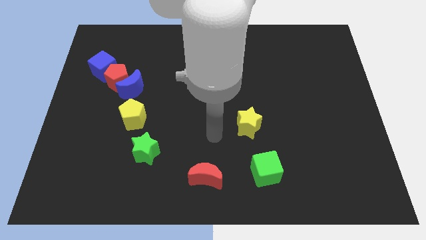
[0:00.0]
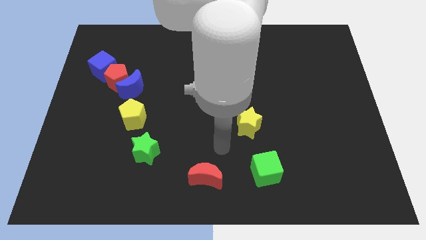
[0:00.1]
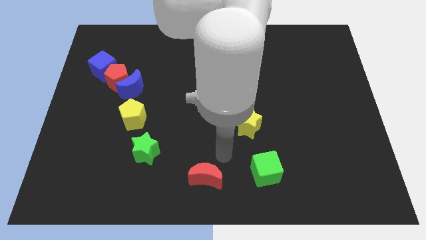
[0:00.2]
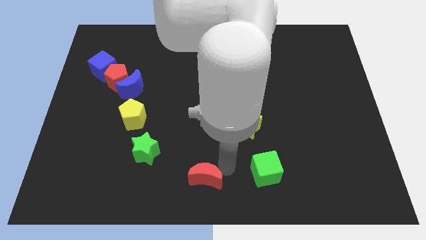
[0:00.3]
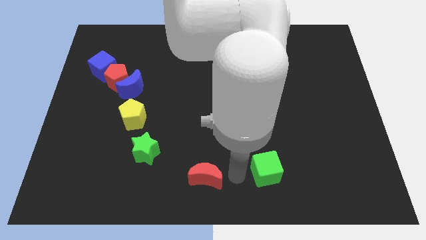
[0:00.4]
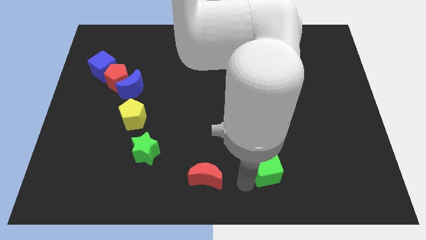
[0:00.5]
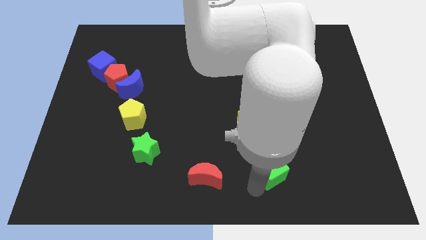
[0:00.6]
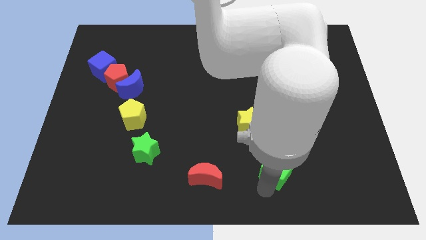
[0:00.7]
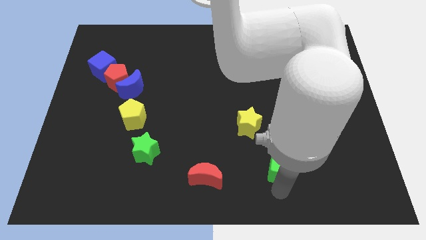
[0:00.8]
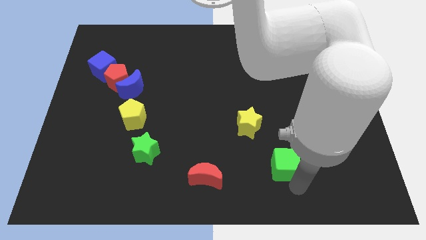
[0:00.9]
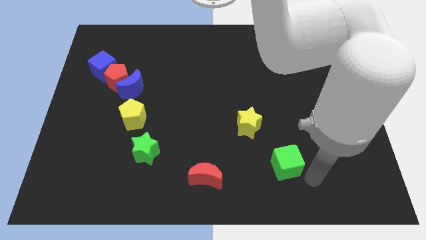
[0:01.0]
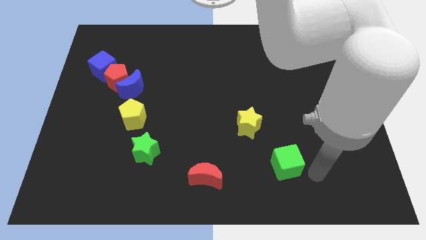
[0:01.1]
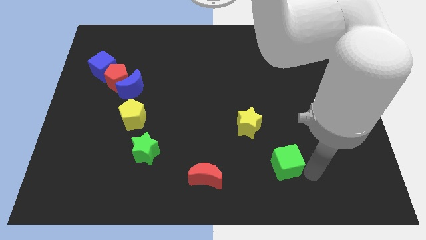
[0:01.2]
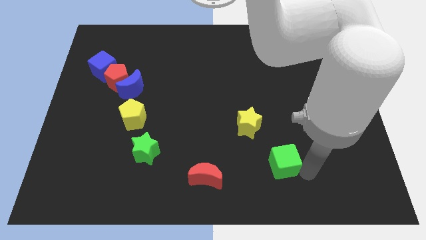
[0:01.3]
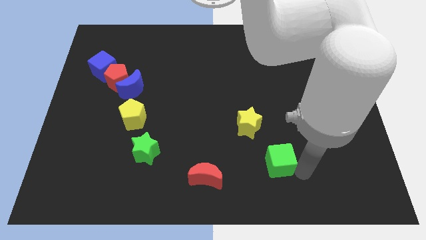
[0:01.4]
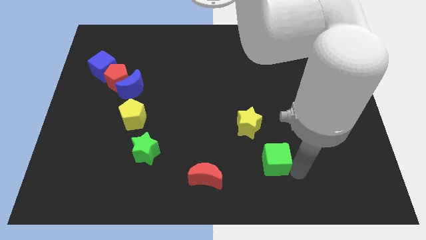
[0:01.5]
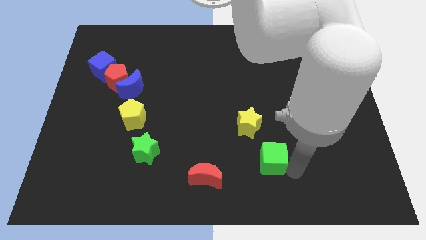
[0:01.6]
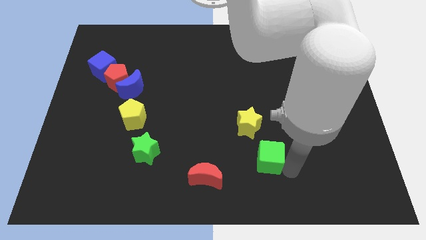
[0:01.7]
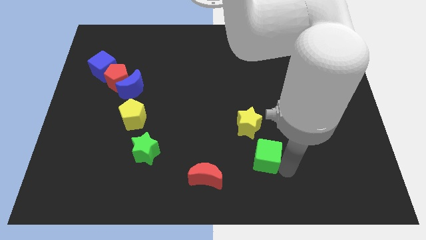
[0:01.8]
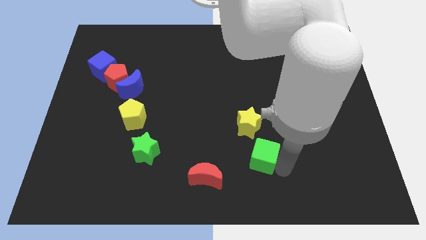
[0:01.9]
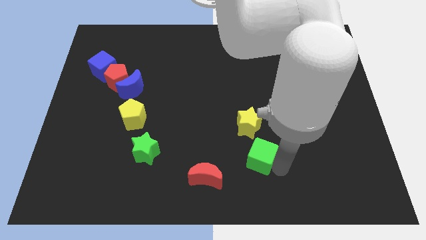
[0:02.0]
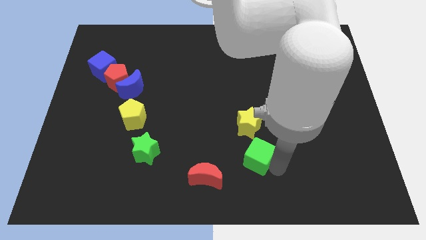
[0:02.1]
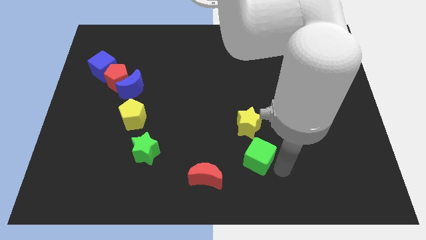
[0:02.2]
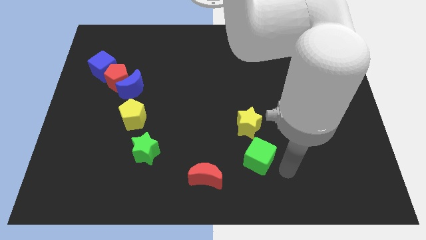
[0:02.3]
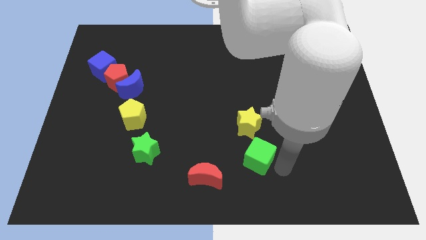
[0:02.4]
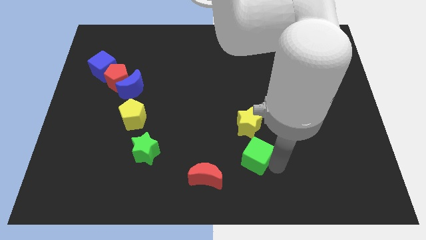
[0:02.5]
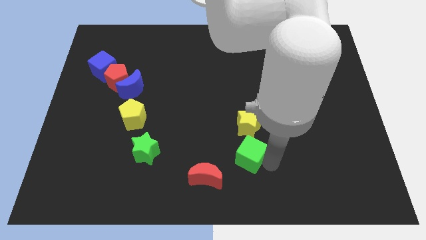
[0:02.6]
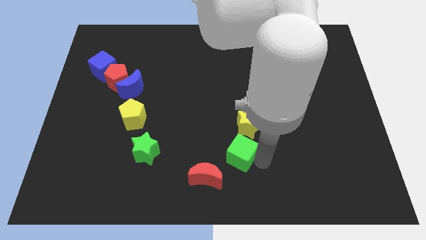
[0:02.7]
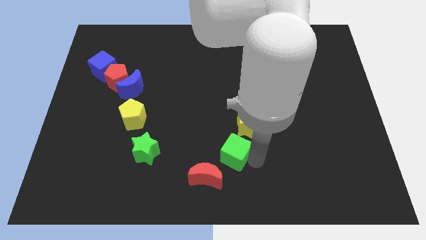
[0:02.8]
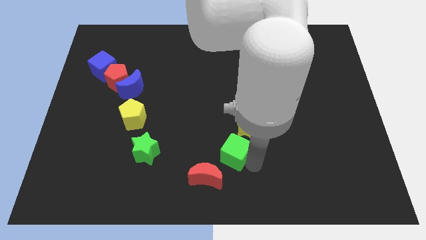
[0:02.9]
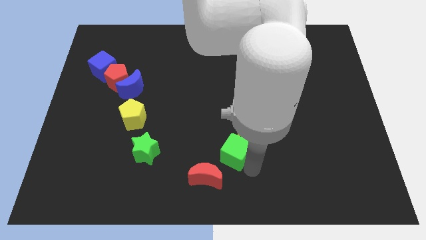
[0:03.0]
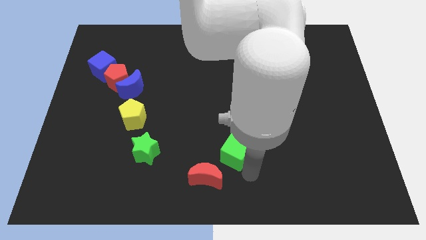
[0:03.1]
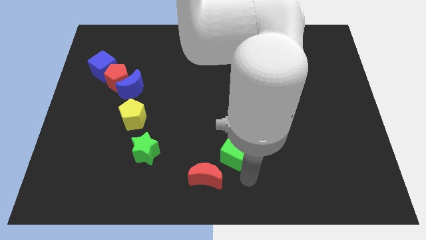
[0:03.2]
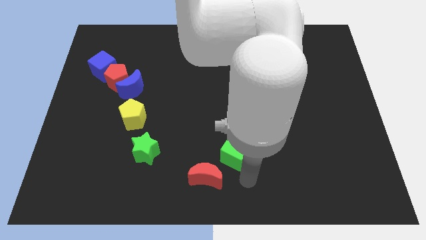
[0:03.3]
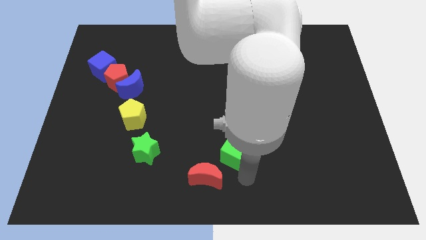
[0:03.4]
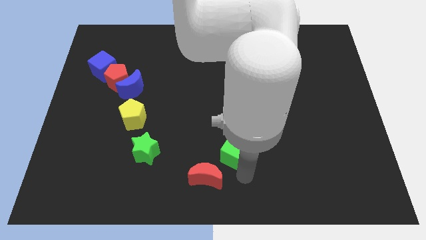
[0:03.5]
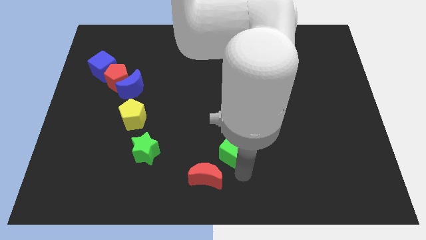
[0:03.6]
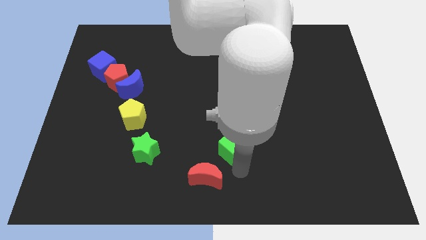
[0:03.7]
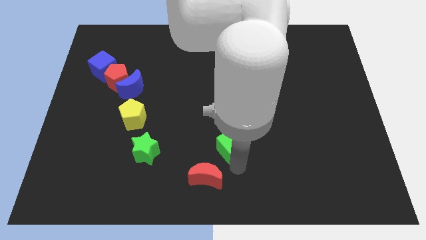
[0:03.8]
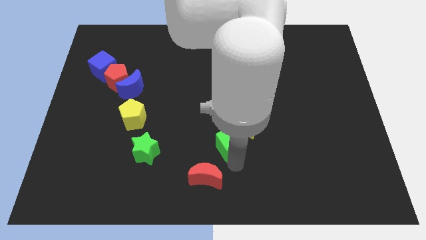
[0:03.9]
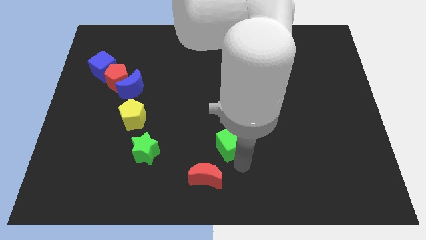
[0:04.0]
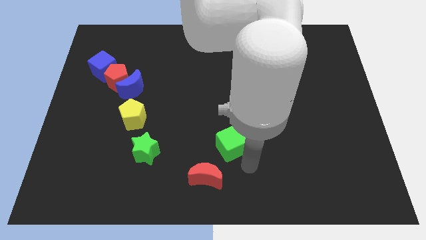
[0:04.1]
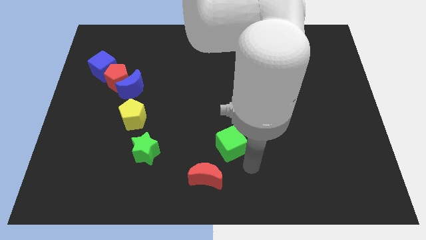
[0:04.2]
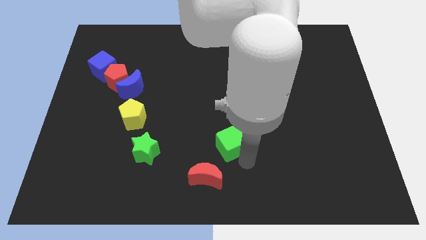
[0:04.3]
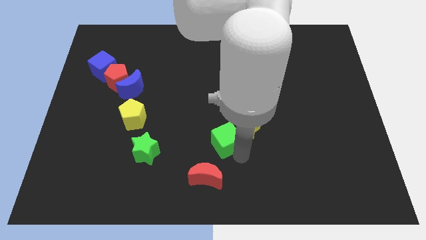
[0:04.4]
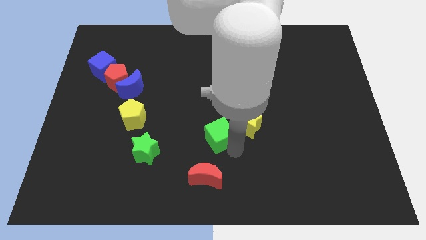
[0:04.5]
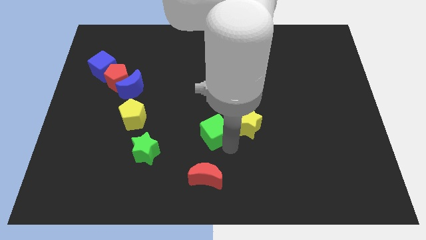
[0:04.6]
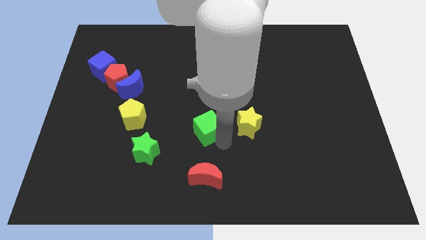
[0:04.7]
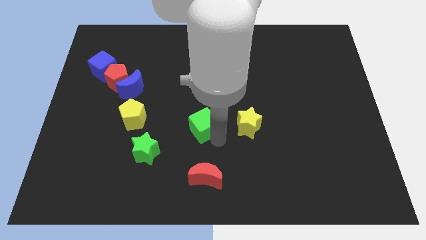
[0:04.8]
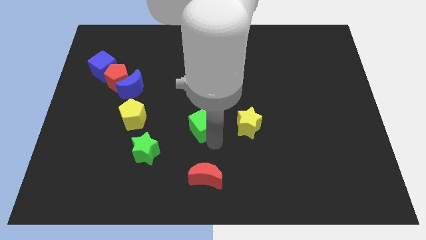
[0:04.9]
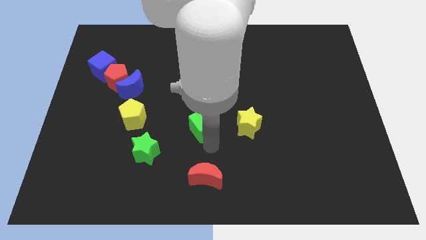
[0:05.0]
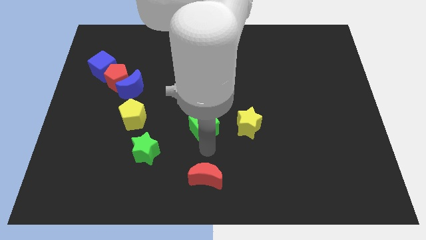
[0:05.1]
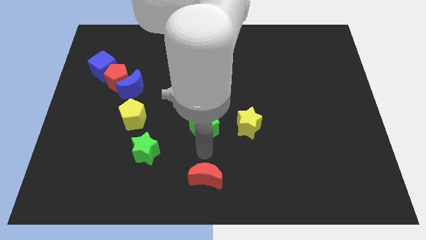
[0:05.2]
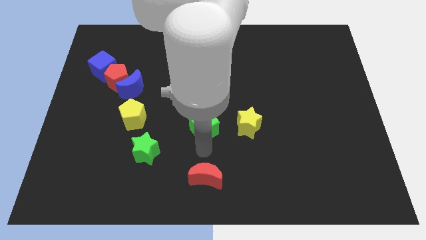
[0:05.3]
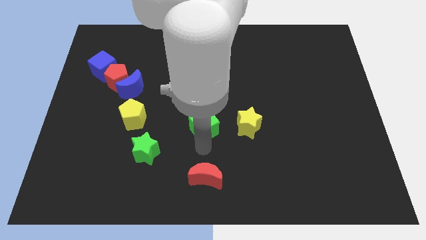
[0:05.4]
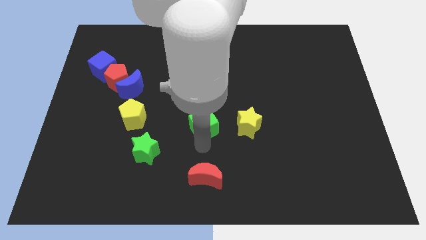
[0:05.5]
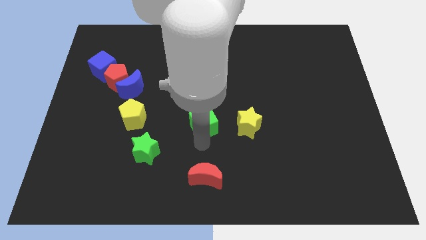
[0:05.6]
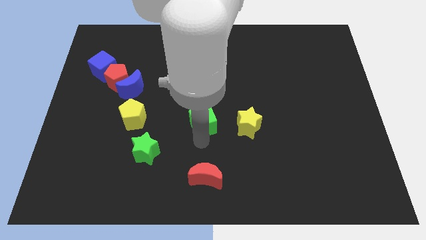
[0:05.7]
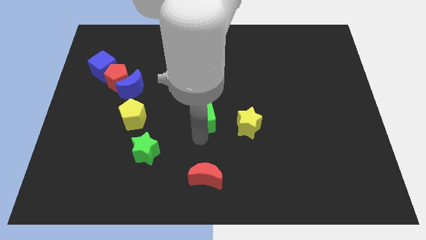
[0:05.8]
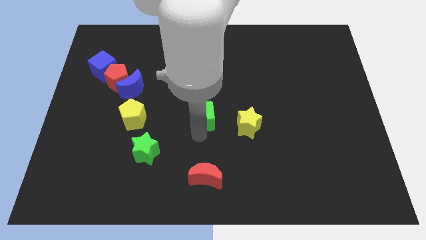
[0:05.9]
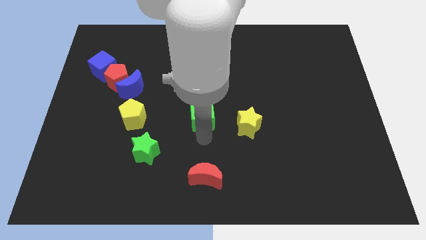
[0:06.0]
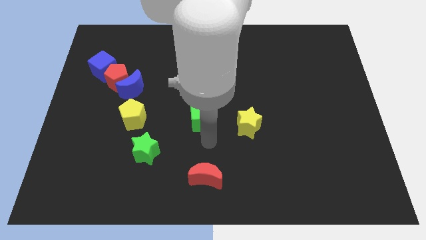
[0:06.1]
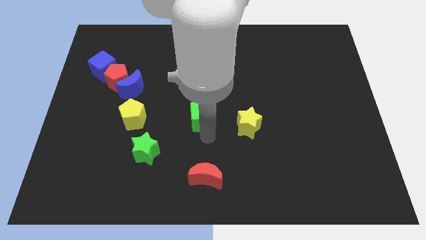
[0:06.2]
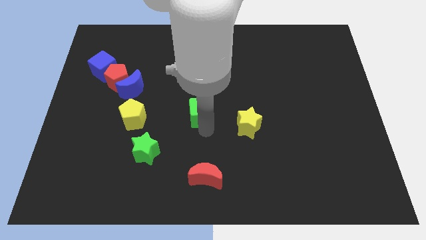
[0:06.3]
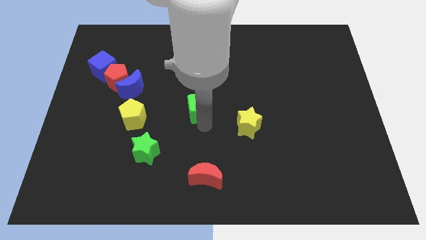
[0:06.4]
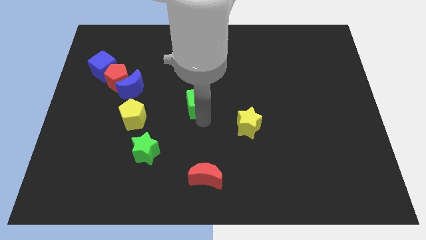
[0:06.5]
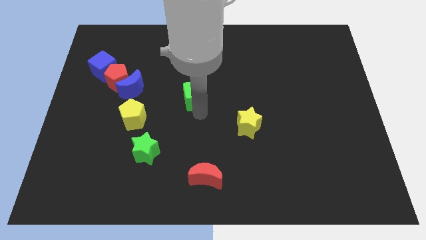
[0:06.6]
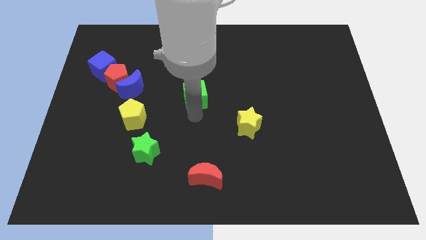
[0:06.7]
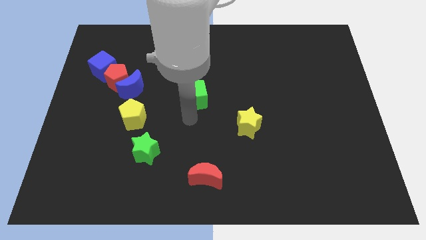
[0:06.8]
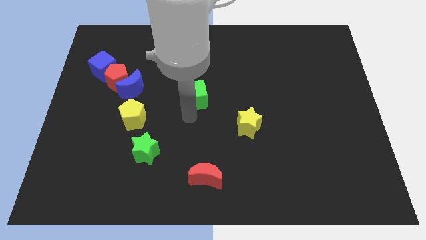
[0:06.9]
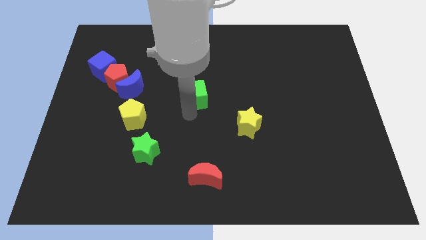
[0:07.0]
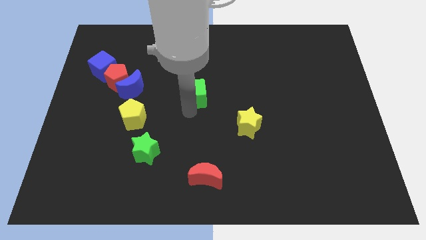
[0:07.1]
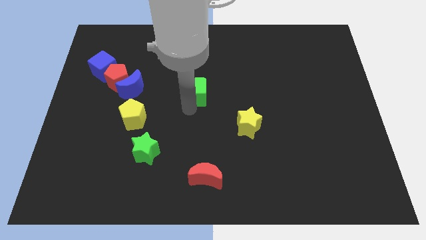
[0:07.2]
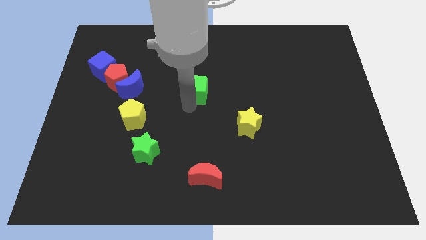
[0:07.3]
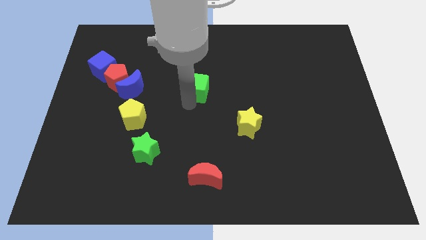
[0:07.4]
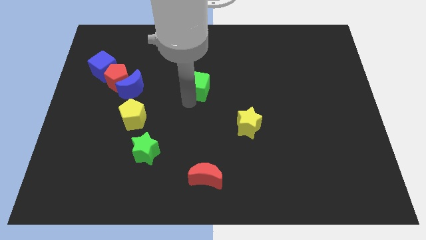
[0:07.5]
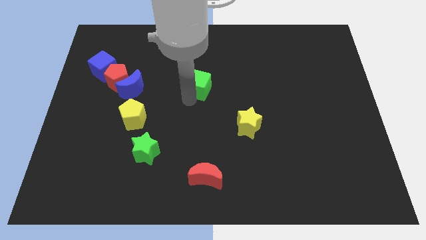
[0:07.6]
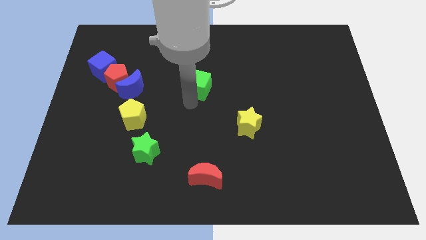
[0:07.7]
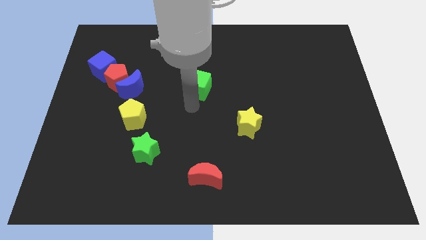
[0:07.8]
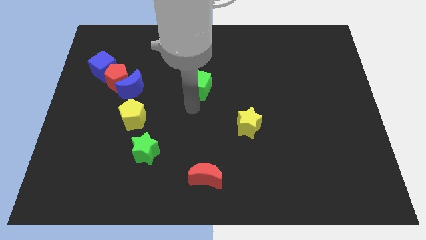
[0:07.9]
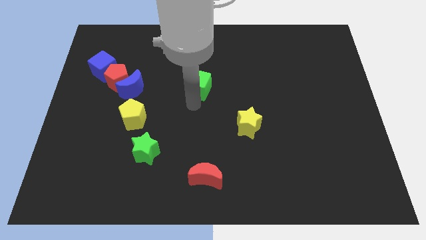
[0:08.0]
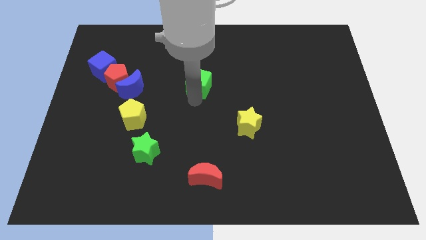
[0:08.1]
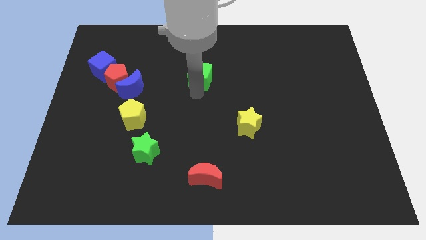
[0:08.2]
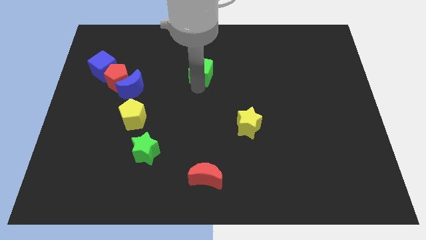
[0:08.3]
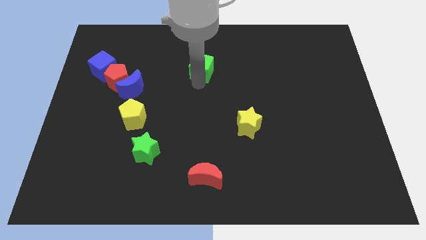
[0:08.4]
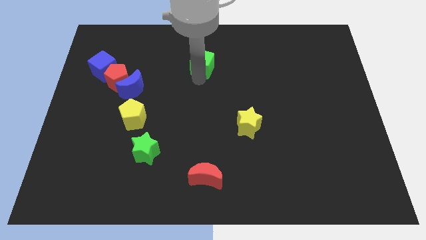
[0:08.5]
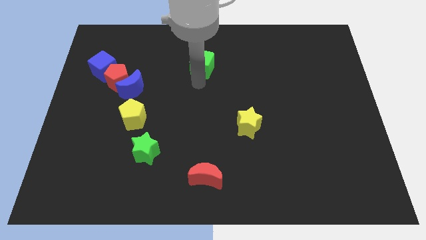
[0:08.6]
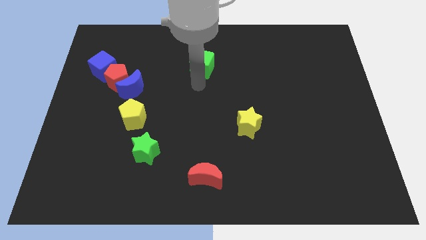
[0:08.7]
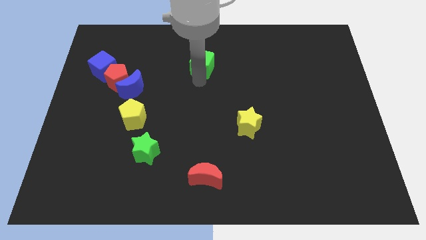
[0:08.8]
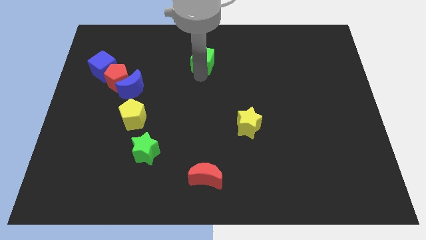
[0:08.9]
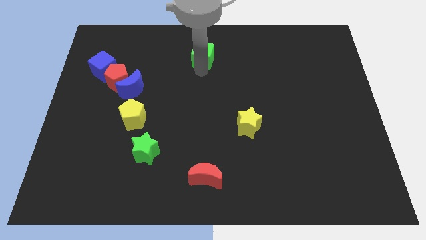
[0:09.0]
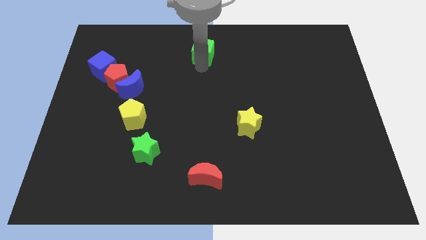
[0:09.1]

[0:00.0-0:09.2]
slide the green cube to the towards your base
